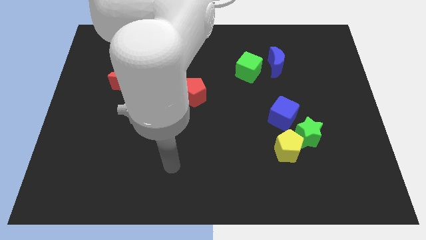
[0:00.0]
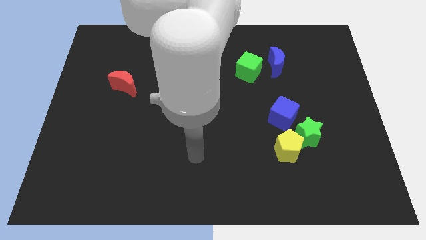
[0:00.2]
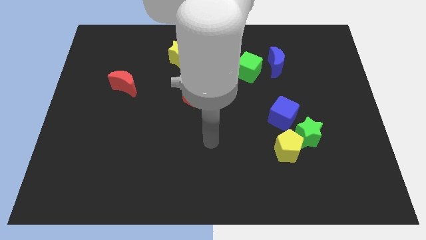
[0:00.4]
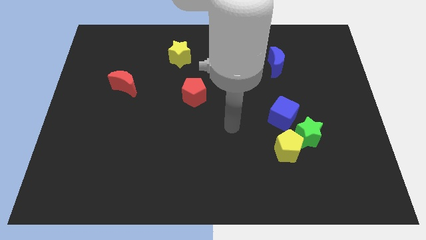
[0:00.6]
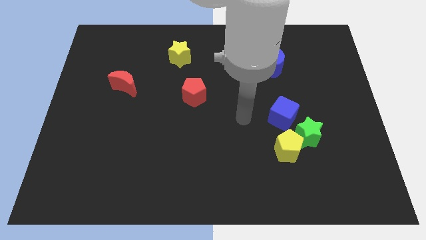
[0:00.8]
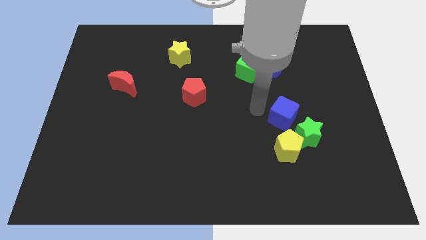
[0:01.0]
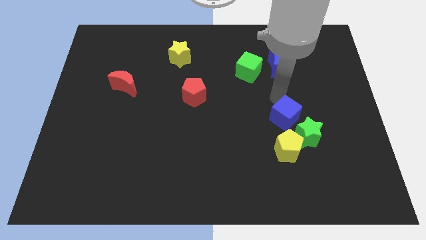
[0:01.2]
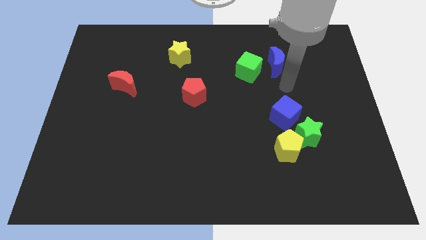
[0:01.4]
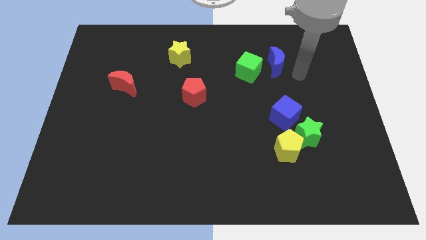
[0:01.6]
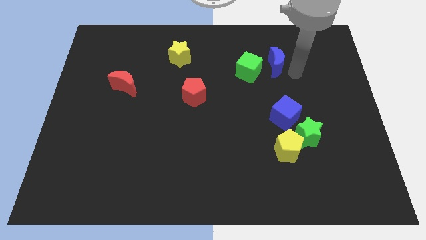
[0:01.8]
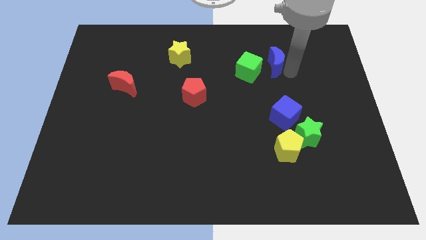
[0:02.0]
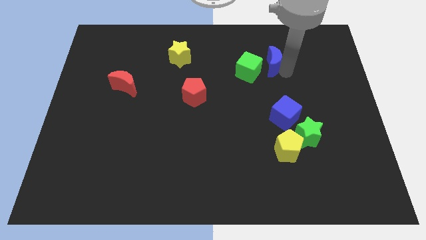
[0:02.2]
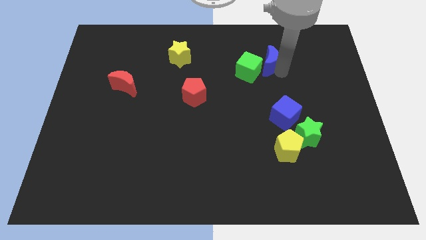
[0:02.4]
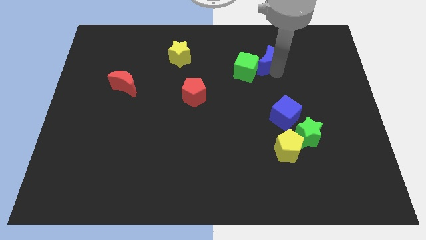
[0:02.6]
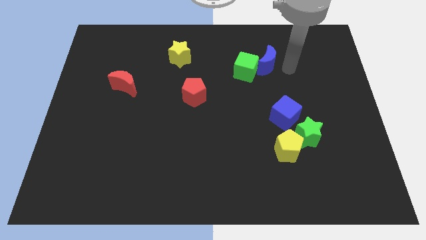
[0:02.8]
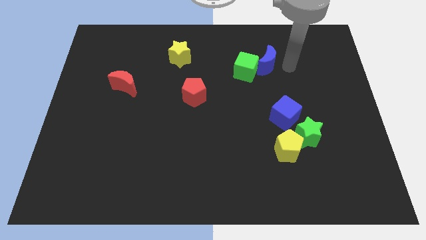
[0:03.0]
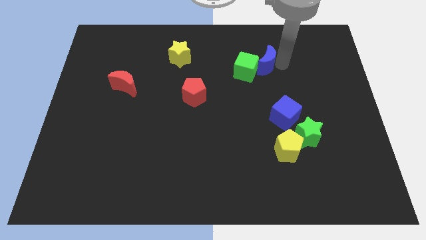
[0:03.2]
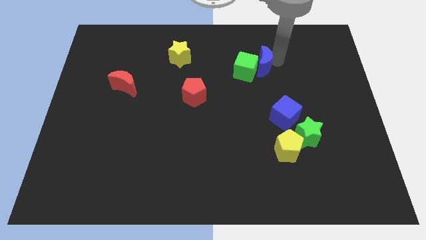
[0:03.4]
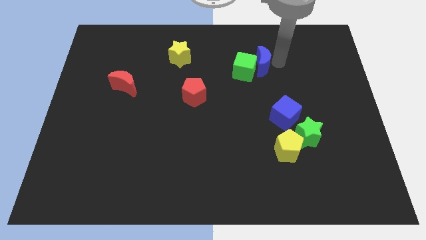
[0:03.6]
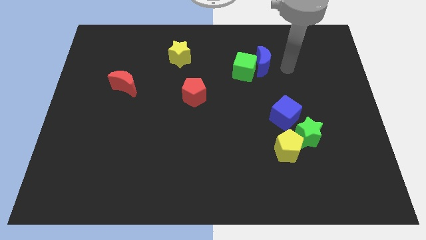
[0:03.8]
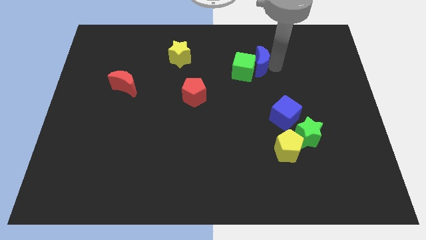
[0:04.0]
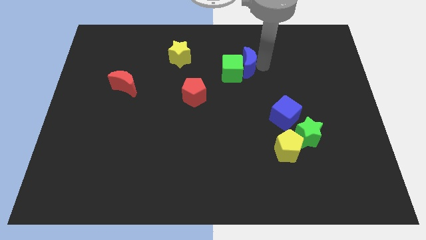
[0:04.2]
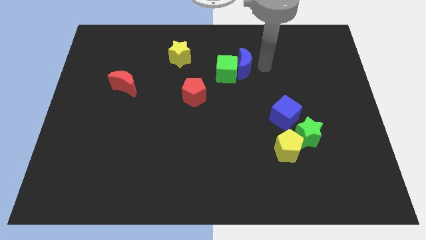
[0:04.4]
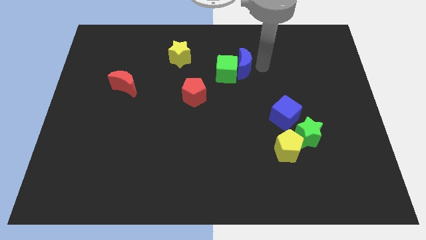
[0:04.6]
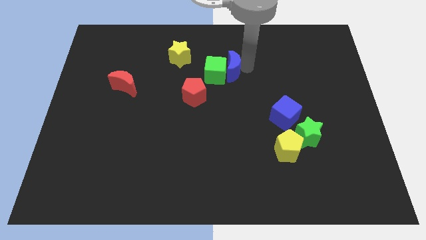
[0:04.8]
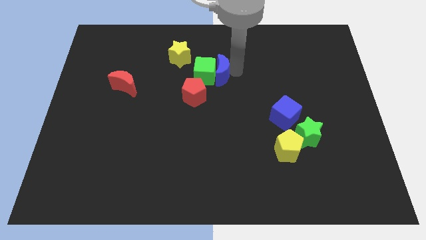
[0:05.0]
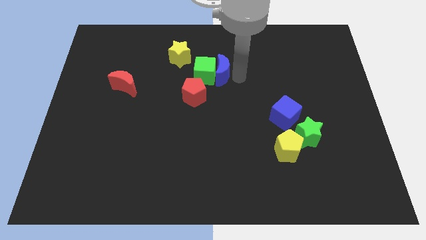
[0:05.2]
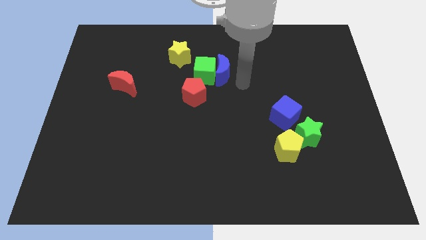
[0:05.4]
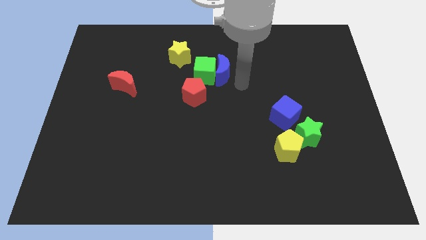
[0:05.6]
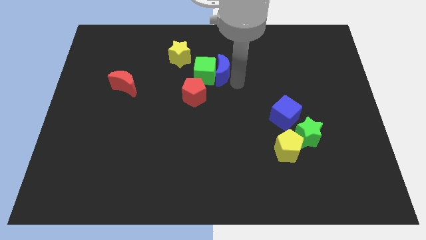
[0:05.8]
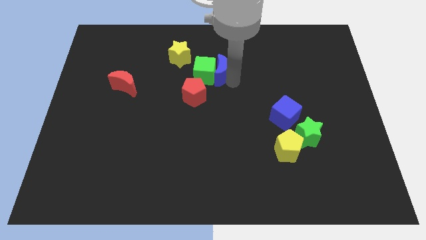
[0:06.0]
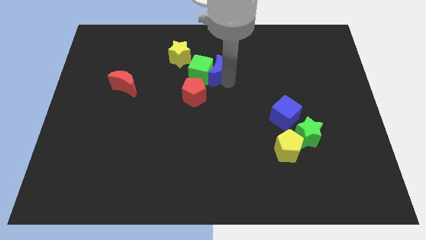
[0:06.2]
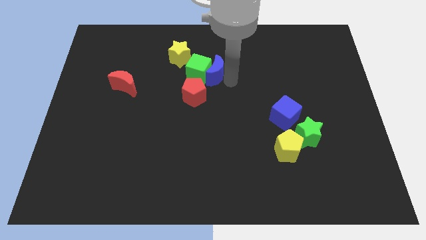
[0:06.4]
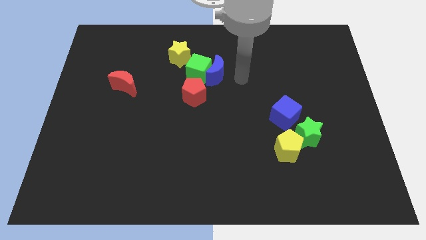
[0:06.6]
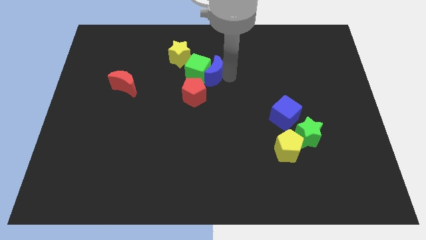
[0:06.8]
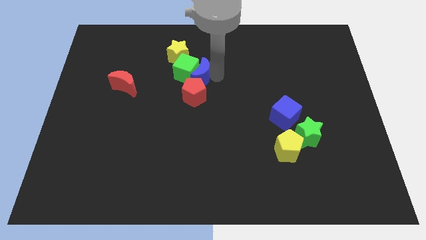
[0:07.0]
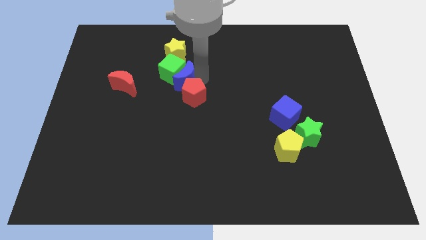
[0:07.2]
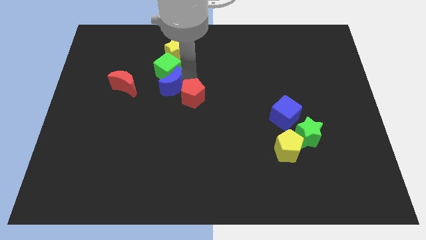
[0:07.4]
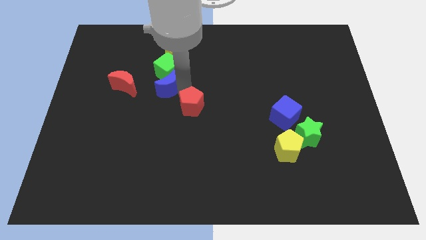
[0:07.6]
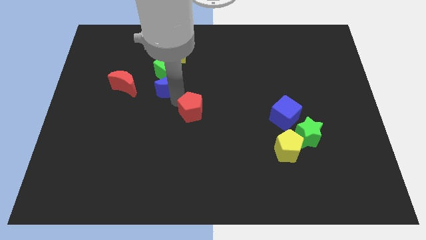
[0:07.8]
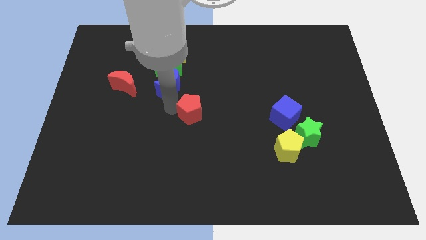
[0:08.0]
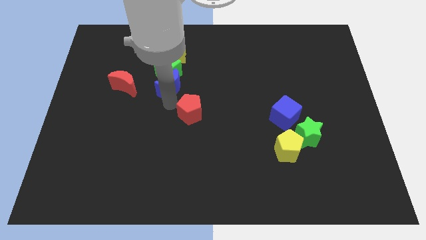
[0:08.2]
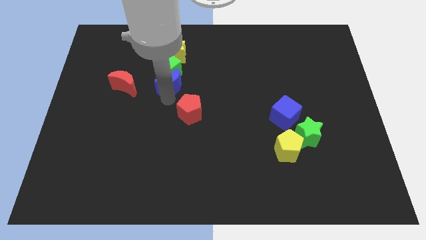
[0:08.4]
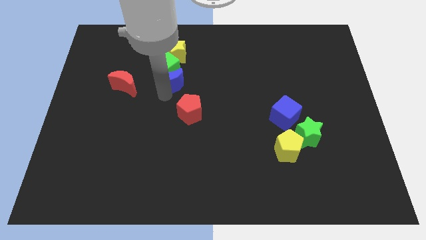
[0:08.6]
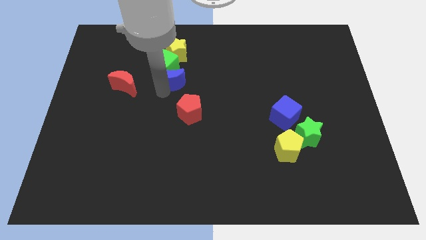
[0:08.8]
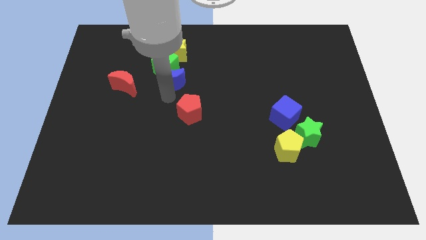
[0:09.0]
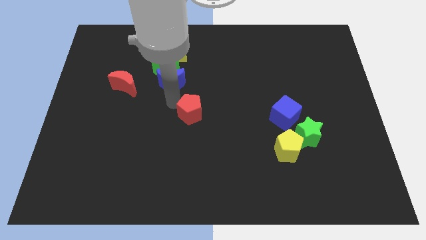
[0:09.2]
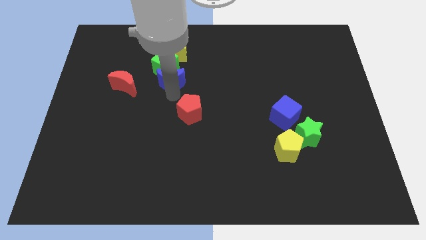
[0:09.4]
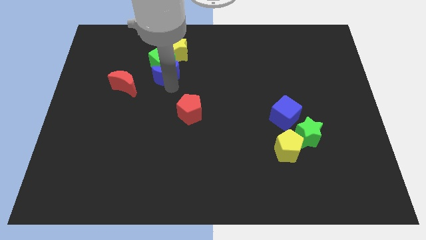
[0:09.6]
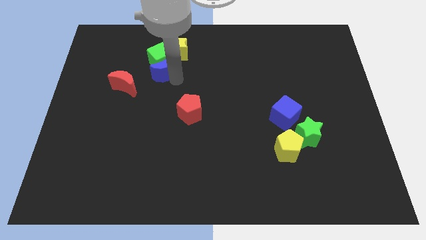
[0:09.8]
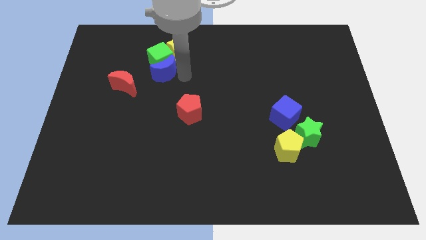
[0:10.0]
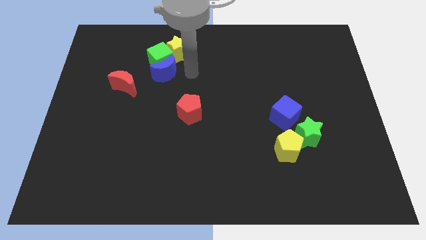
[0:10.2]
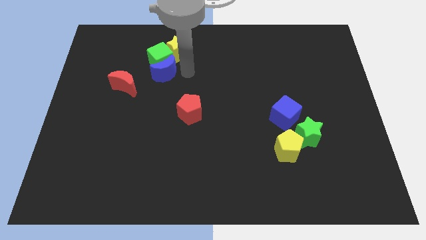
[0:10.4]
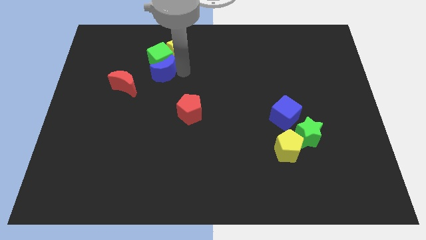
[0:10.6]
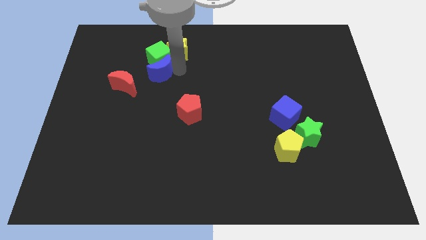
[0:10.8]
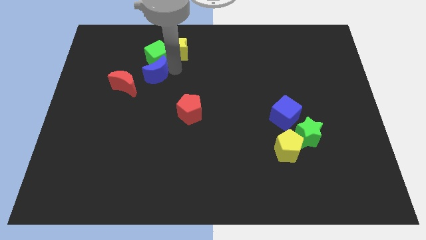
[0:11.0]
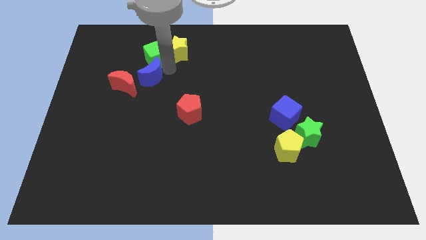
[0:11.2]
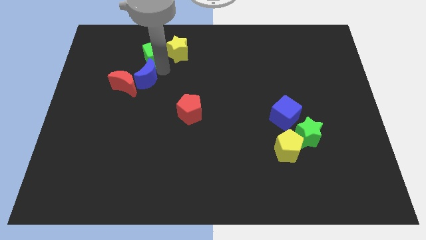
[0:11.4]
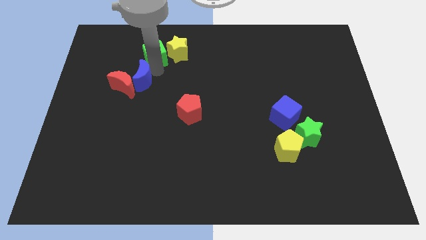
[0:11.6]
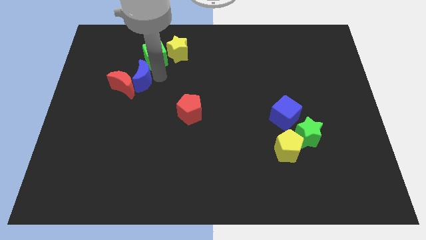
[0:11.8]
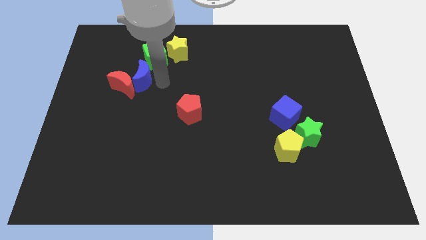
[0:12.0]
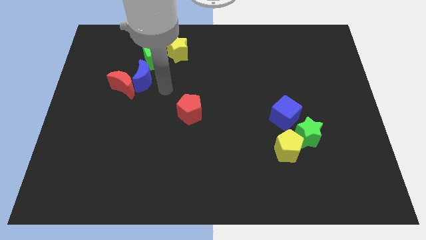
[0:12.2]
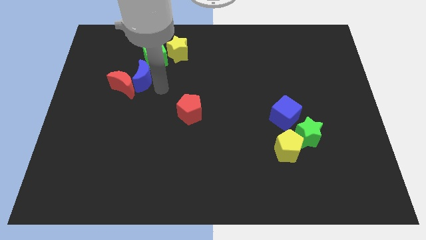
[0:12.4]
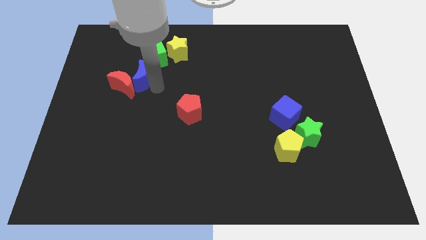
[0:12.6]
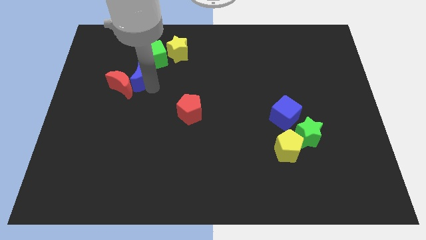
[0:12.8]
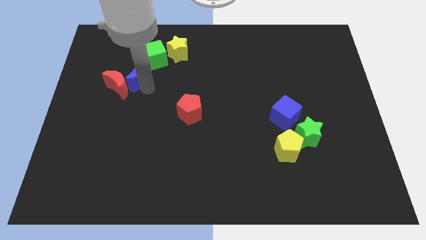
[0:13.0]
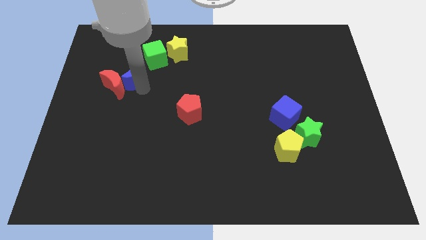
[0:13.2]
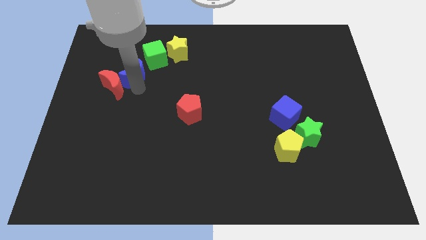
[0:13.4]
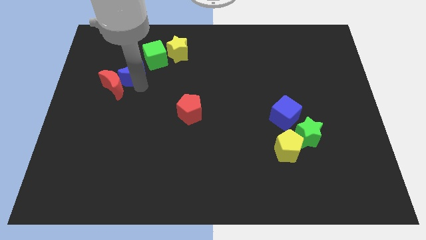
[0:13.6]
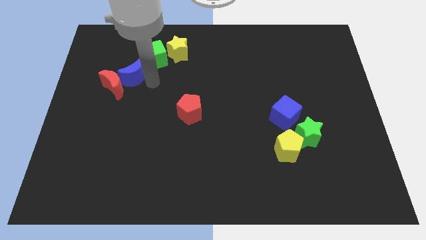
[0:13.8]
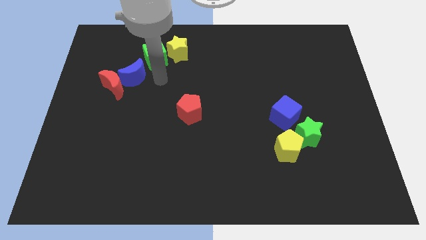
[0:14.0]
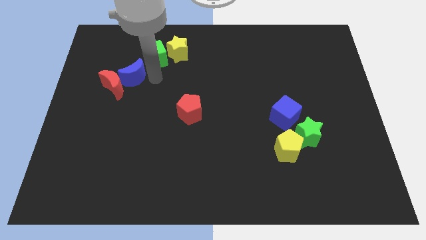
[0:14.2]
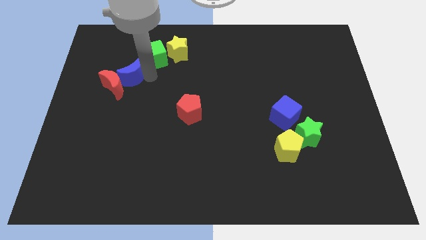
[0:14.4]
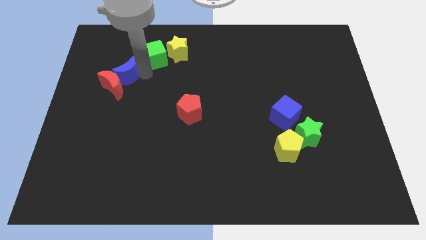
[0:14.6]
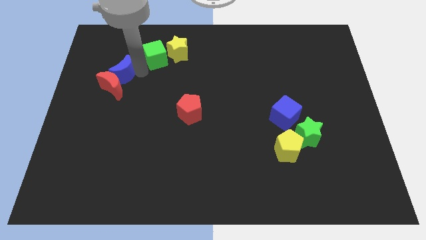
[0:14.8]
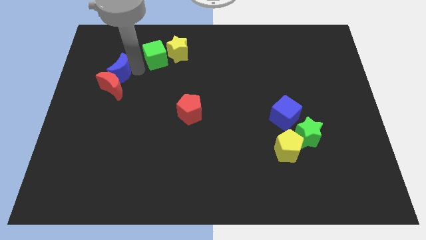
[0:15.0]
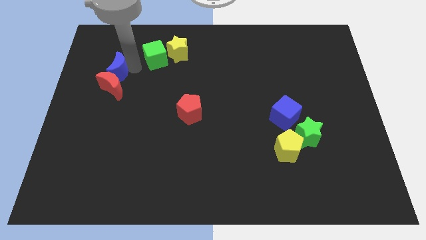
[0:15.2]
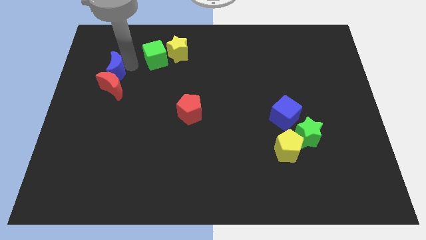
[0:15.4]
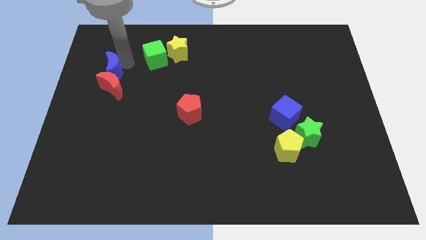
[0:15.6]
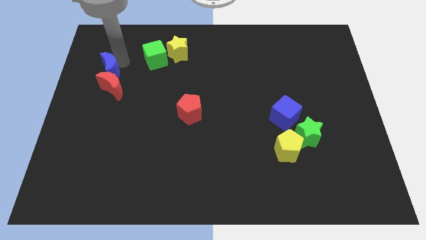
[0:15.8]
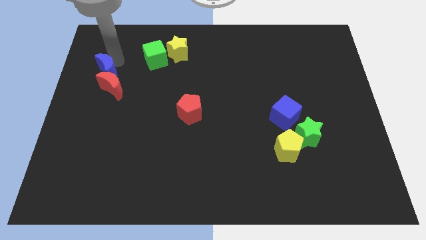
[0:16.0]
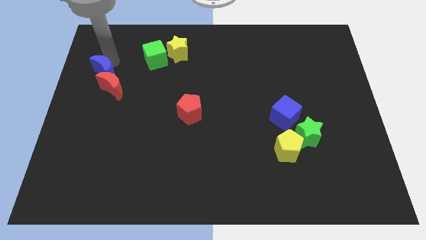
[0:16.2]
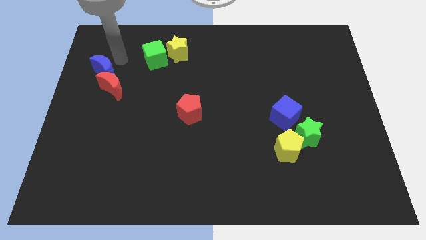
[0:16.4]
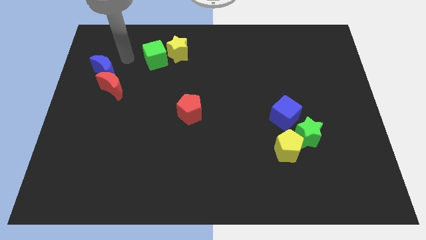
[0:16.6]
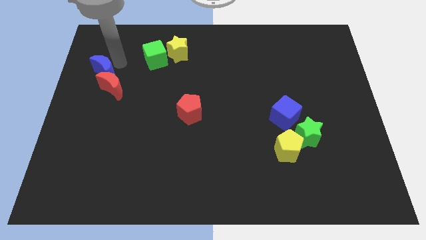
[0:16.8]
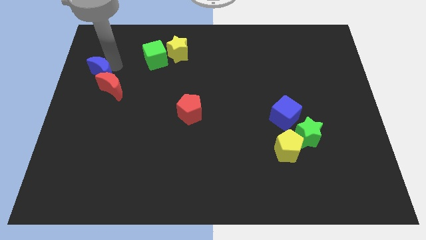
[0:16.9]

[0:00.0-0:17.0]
push the blue moon to the center left
